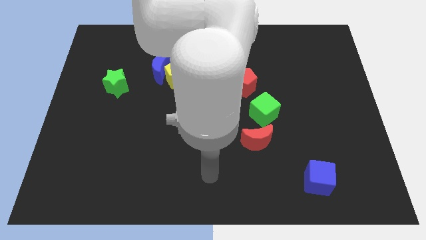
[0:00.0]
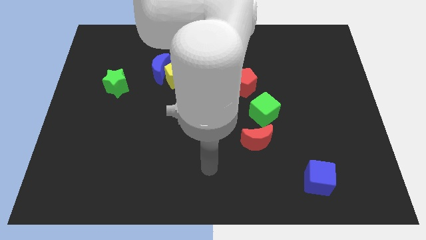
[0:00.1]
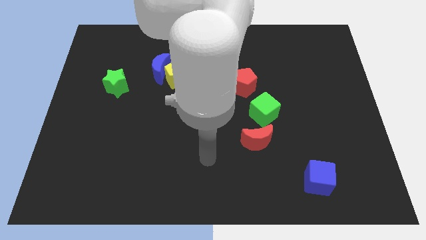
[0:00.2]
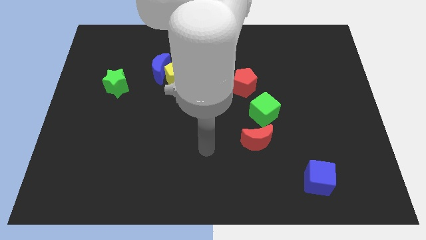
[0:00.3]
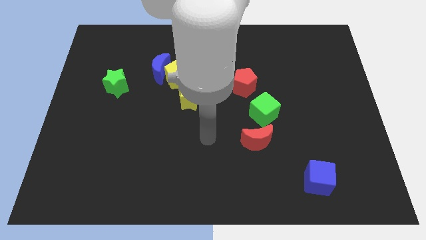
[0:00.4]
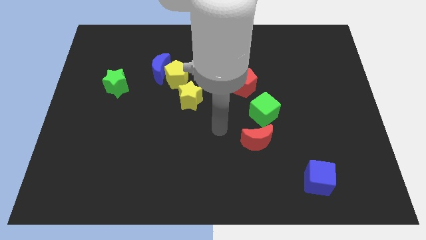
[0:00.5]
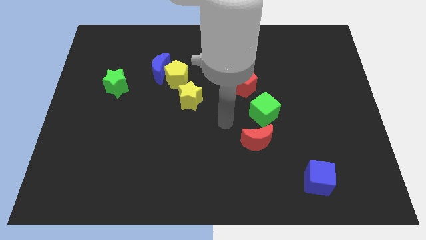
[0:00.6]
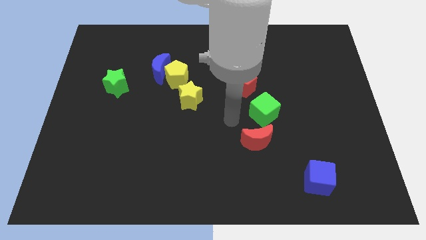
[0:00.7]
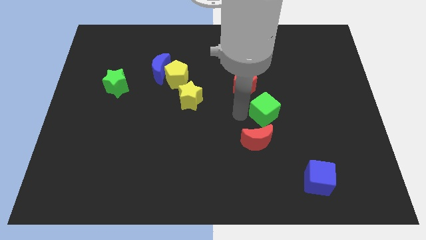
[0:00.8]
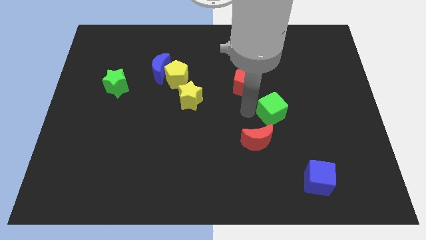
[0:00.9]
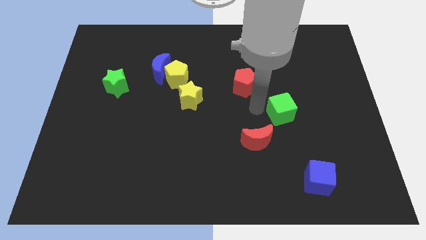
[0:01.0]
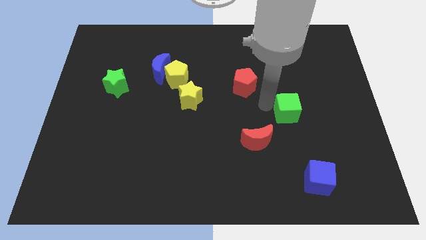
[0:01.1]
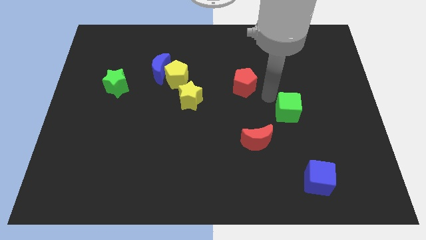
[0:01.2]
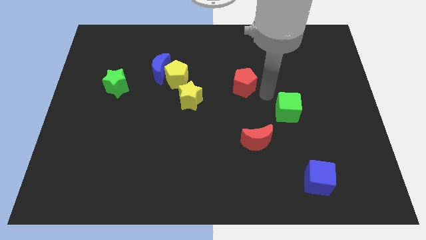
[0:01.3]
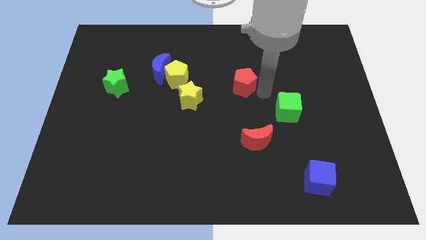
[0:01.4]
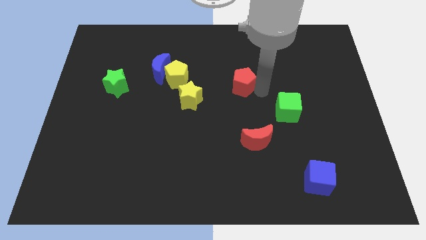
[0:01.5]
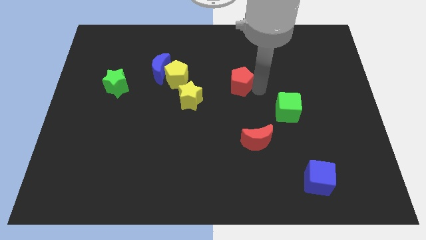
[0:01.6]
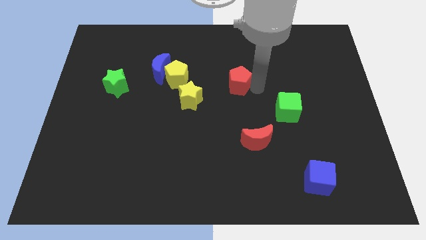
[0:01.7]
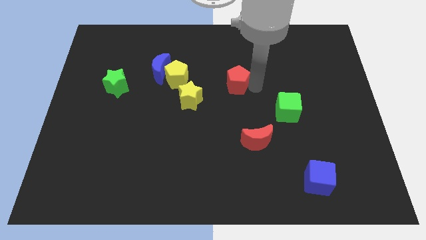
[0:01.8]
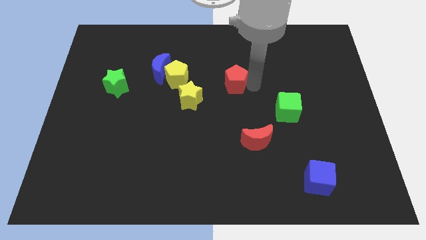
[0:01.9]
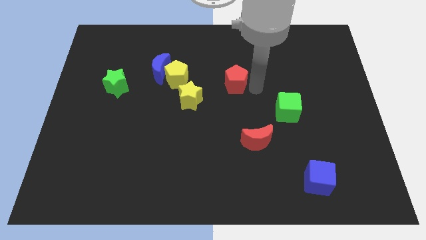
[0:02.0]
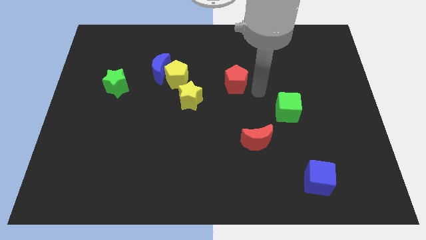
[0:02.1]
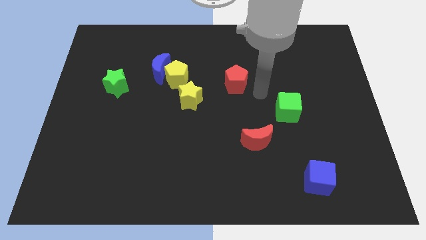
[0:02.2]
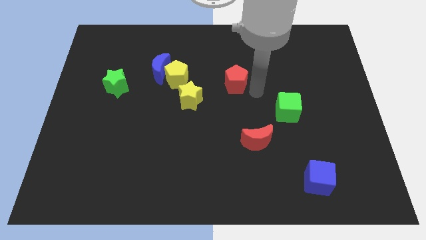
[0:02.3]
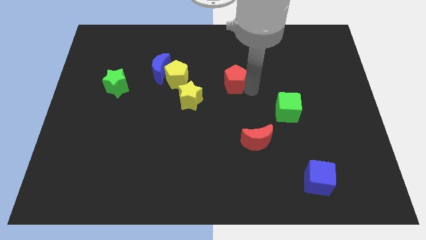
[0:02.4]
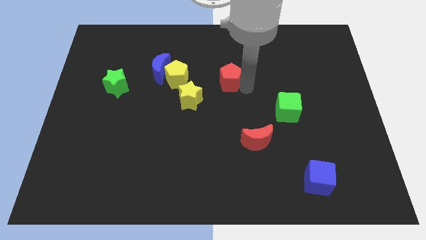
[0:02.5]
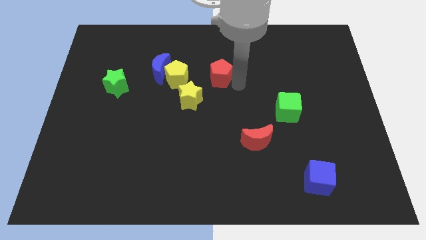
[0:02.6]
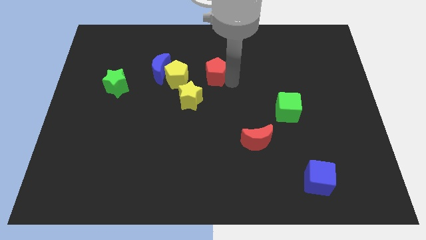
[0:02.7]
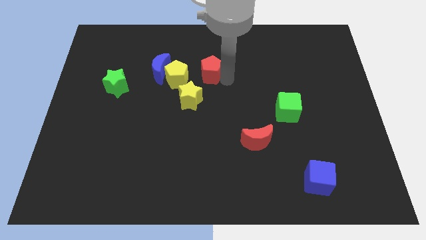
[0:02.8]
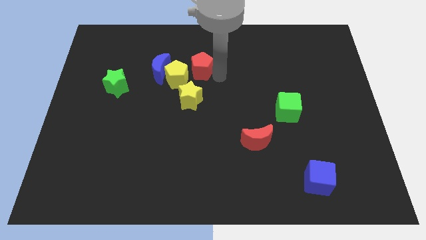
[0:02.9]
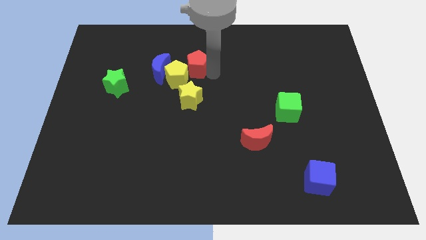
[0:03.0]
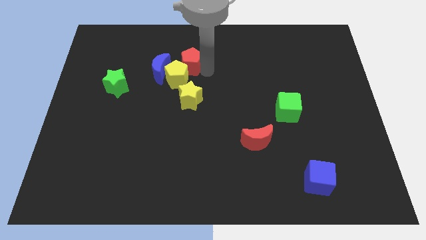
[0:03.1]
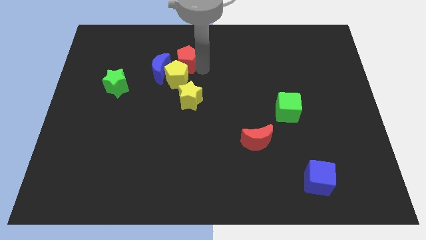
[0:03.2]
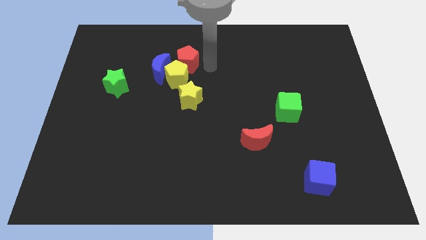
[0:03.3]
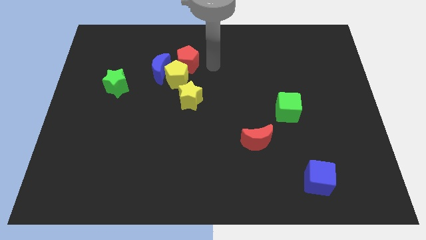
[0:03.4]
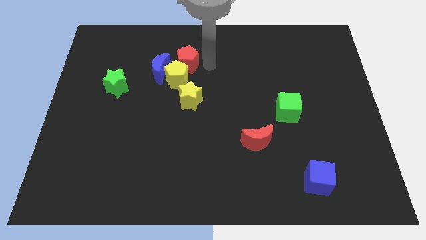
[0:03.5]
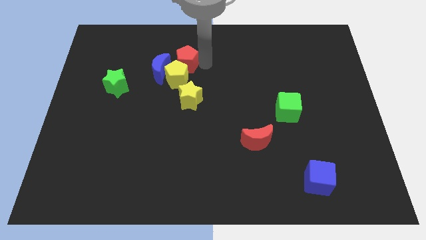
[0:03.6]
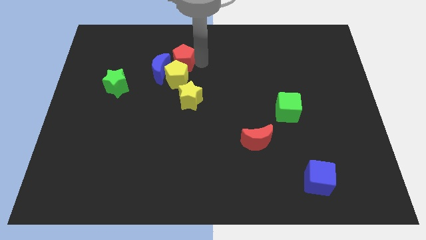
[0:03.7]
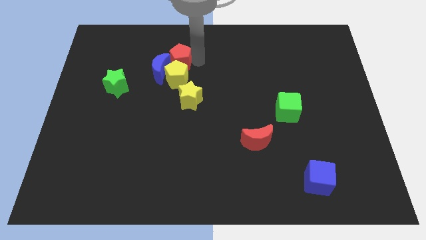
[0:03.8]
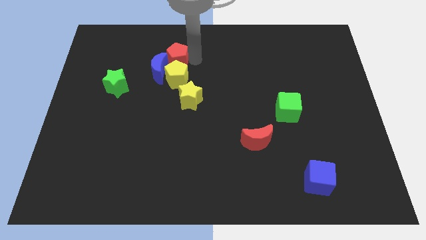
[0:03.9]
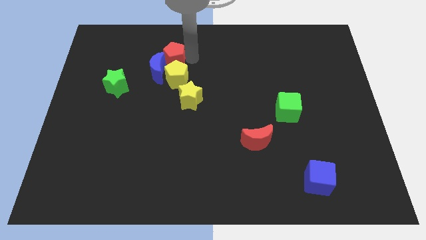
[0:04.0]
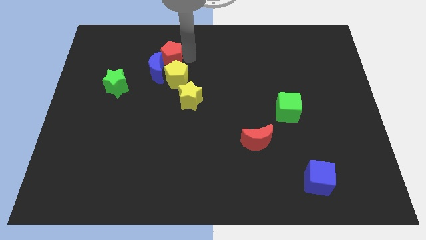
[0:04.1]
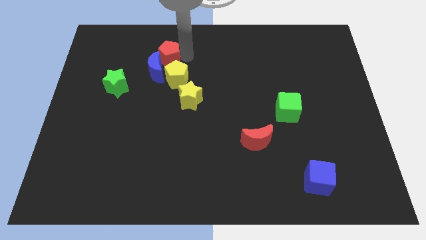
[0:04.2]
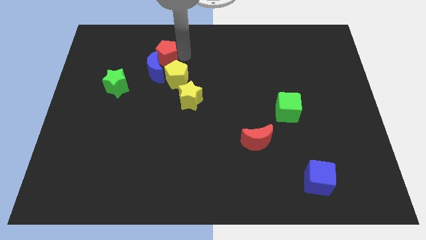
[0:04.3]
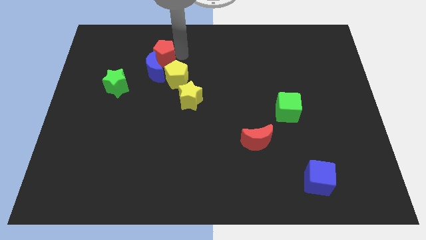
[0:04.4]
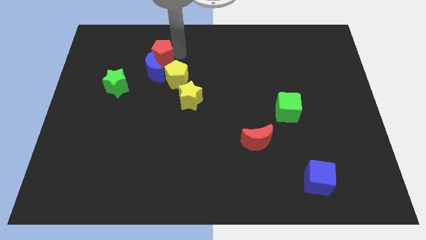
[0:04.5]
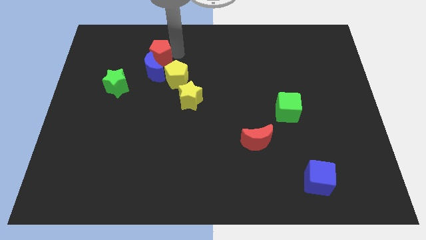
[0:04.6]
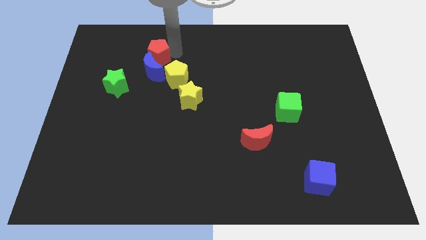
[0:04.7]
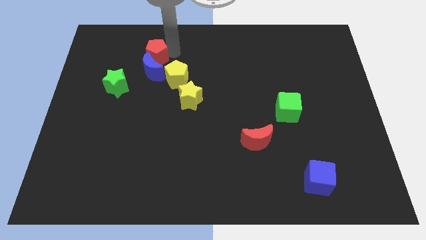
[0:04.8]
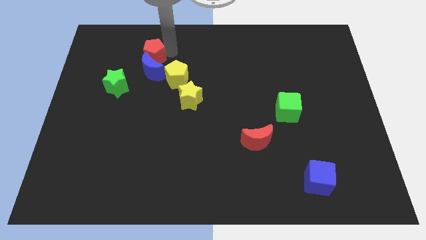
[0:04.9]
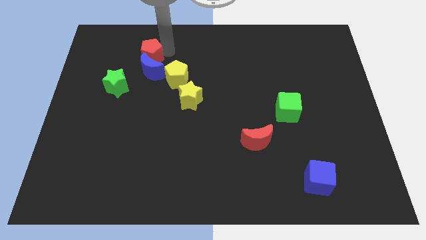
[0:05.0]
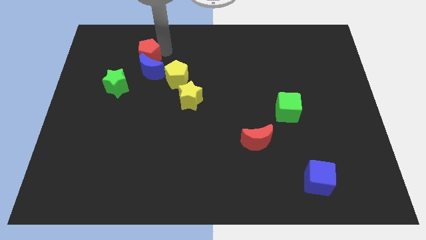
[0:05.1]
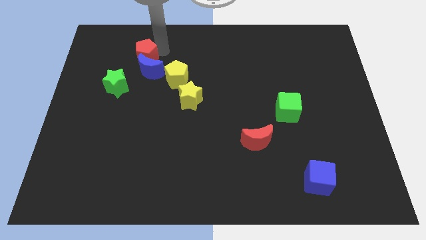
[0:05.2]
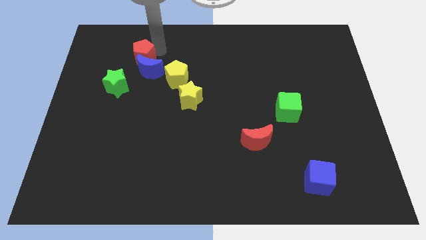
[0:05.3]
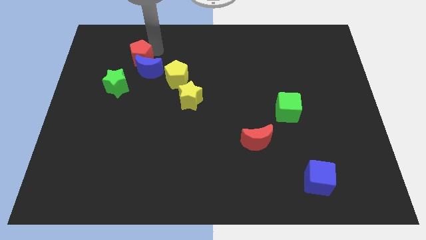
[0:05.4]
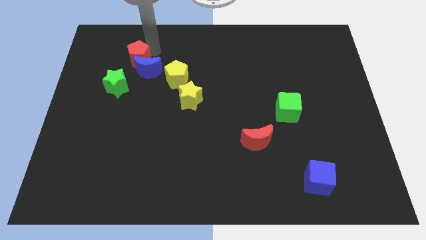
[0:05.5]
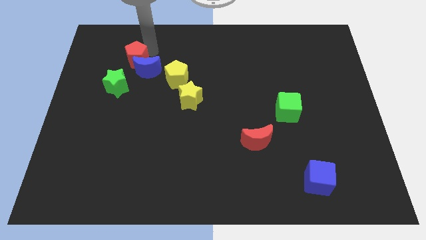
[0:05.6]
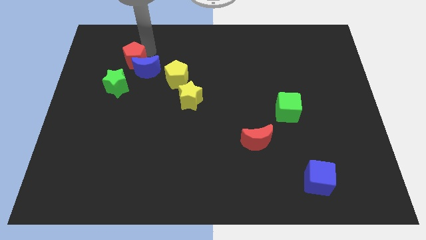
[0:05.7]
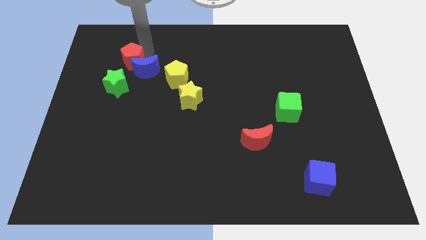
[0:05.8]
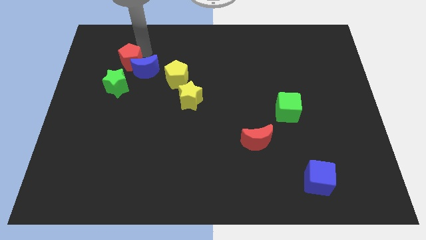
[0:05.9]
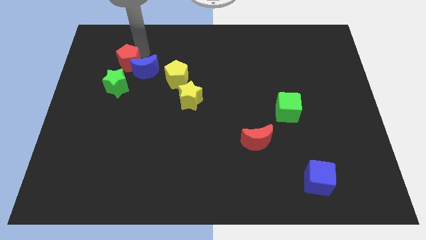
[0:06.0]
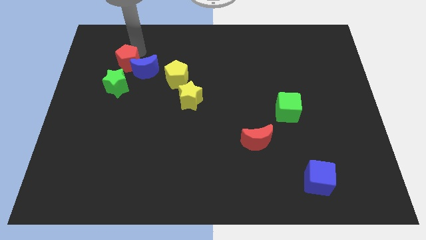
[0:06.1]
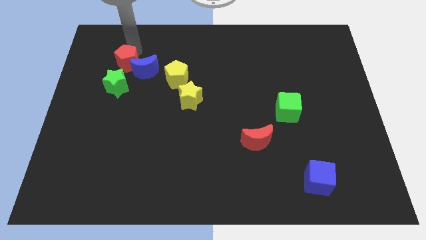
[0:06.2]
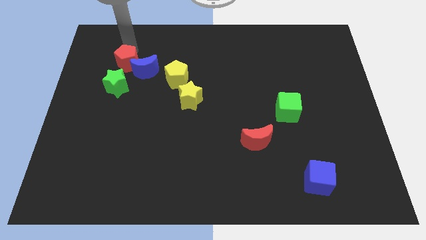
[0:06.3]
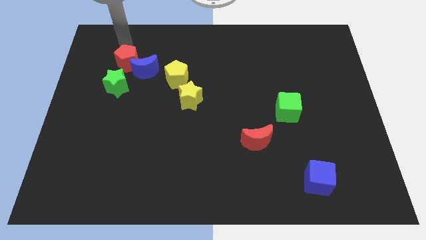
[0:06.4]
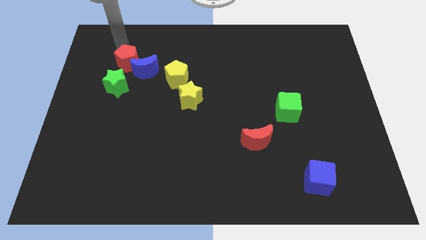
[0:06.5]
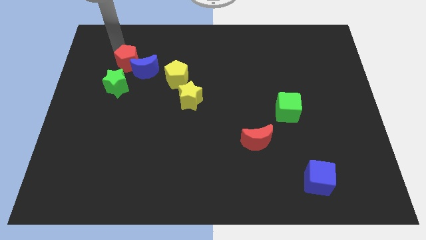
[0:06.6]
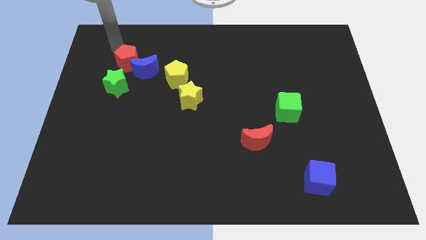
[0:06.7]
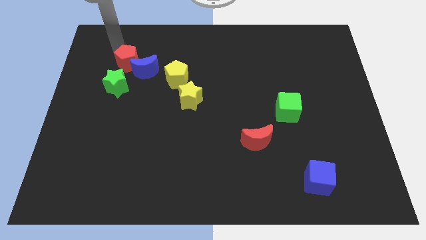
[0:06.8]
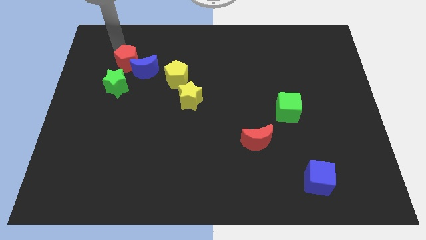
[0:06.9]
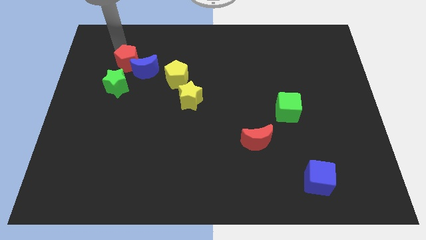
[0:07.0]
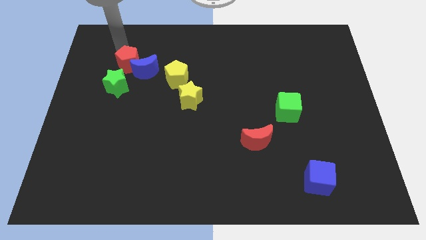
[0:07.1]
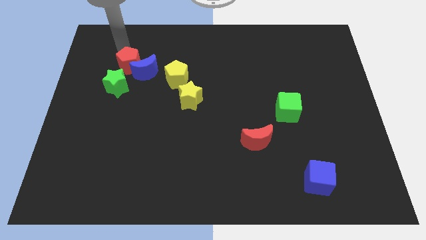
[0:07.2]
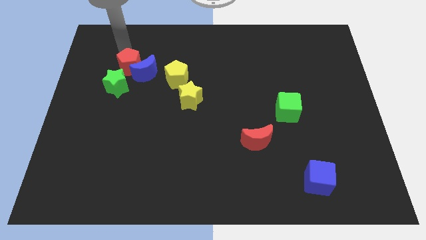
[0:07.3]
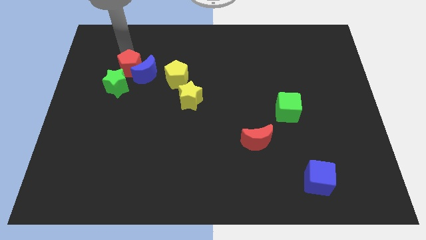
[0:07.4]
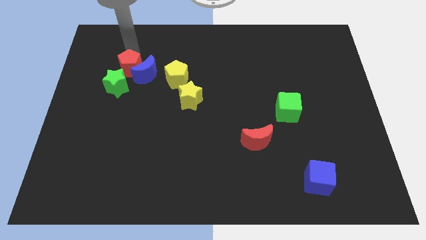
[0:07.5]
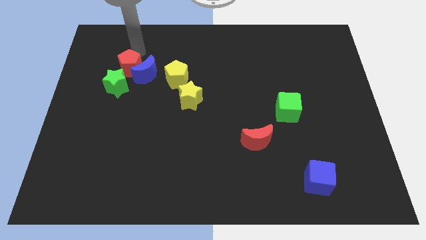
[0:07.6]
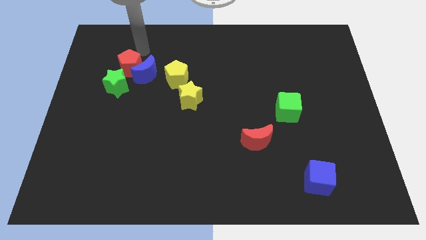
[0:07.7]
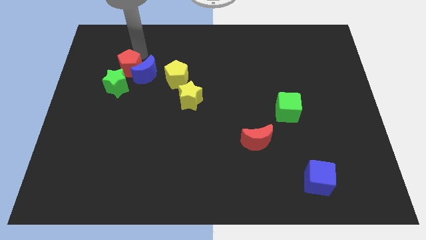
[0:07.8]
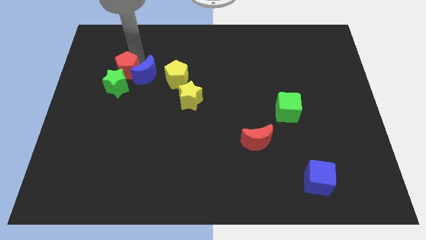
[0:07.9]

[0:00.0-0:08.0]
slide the red pentagon to the green star
